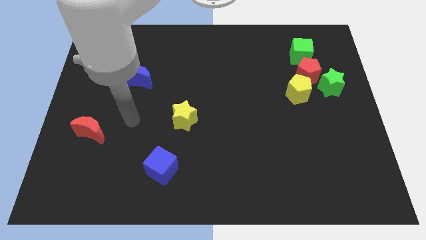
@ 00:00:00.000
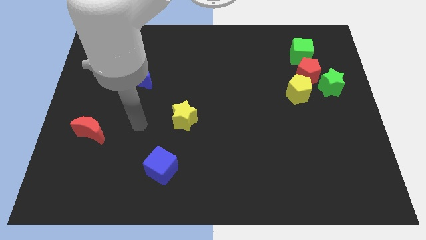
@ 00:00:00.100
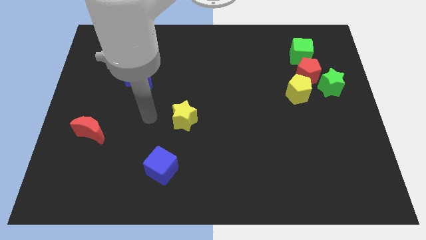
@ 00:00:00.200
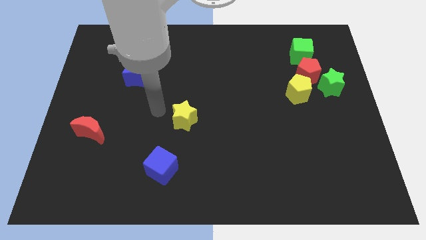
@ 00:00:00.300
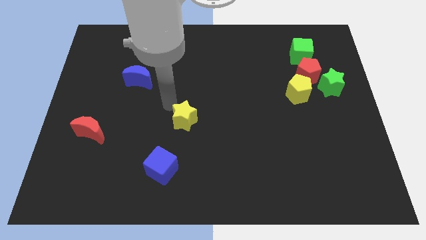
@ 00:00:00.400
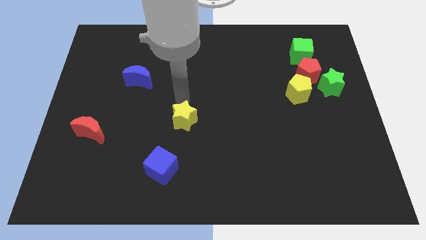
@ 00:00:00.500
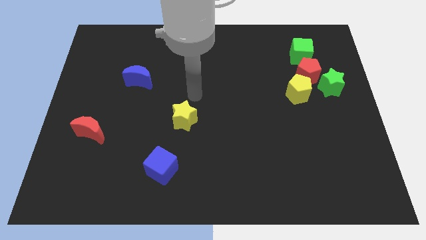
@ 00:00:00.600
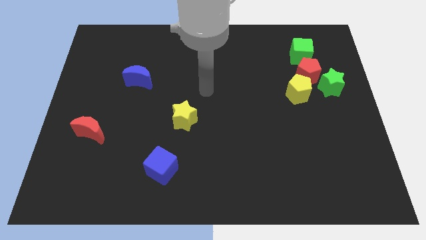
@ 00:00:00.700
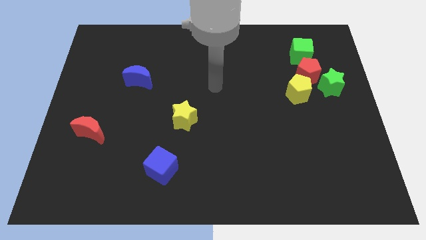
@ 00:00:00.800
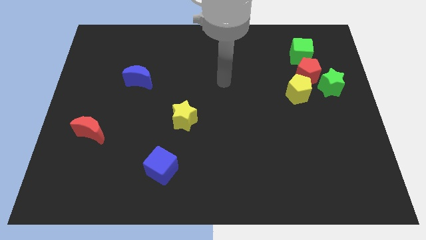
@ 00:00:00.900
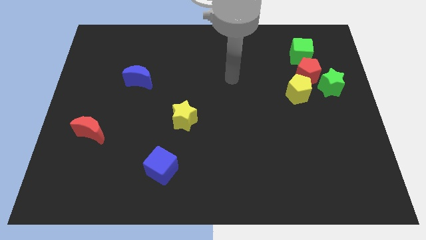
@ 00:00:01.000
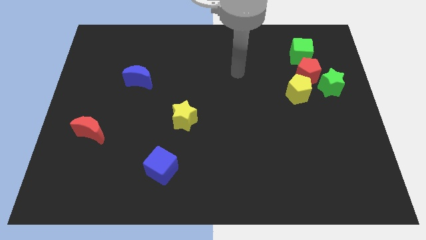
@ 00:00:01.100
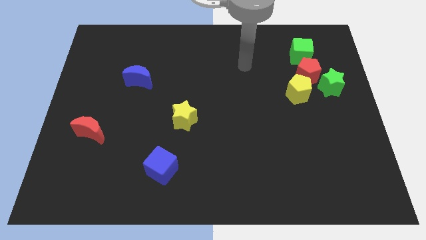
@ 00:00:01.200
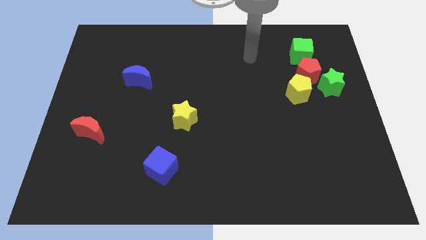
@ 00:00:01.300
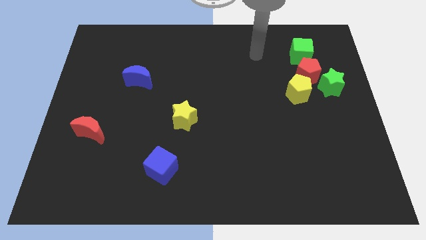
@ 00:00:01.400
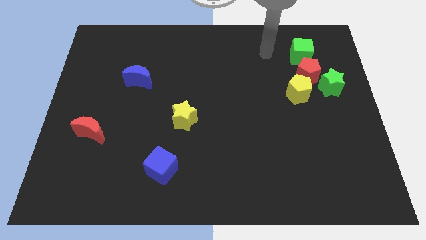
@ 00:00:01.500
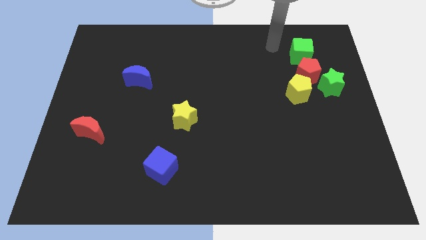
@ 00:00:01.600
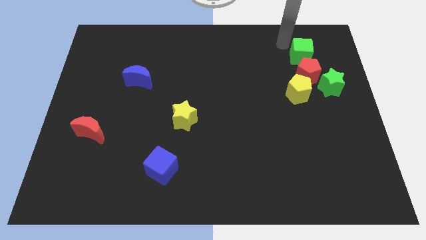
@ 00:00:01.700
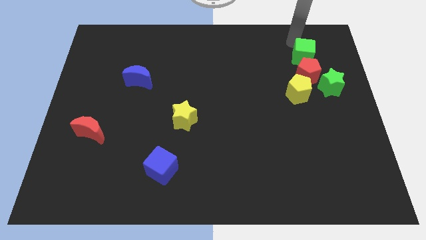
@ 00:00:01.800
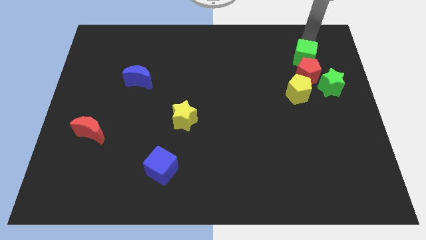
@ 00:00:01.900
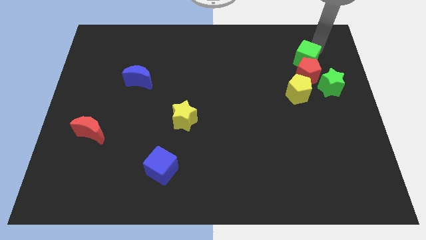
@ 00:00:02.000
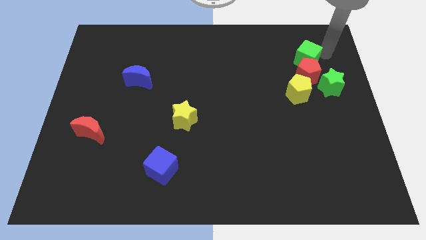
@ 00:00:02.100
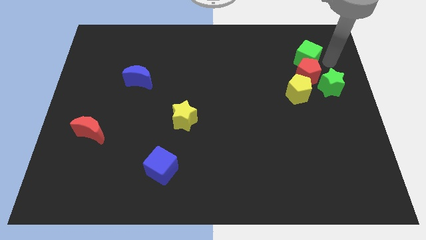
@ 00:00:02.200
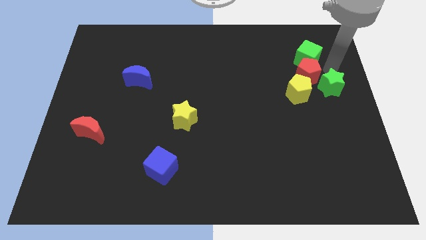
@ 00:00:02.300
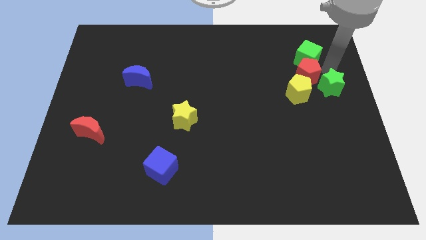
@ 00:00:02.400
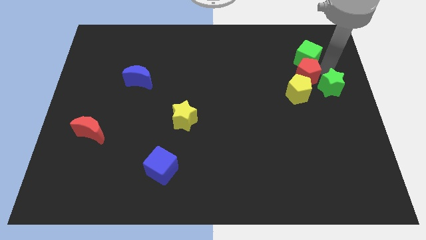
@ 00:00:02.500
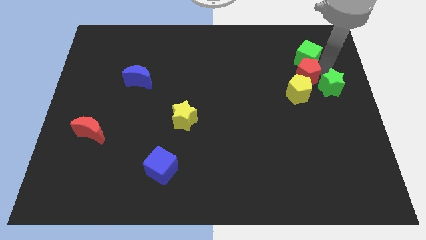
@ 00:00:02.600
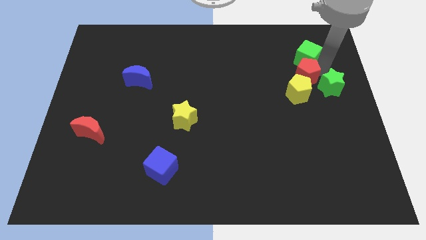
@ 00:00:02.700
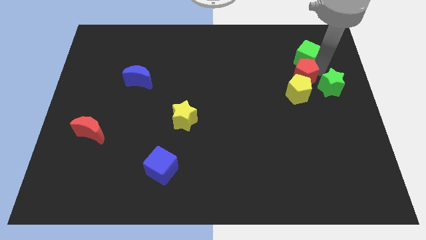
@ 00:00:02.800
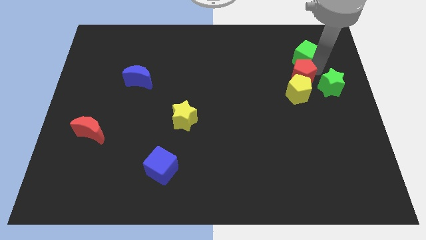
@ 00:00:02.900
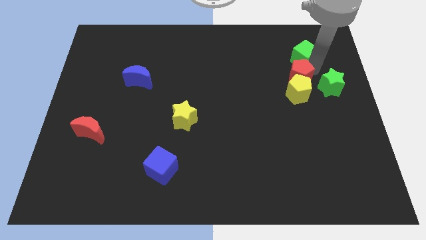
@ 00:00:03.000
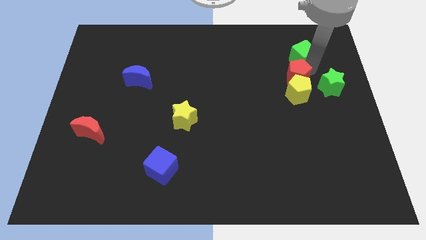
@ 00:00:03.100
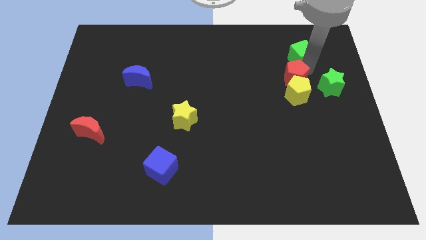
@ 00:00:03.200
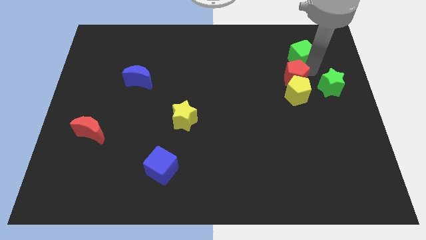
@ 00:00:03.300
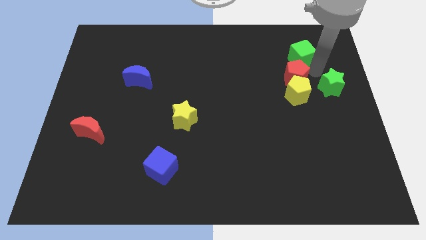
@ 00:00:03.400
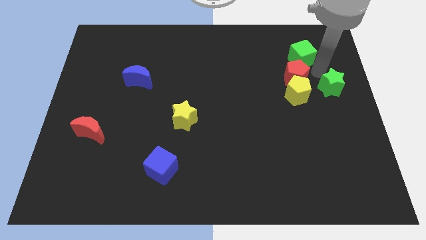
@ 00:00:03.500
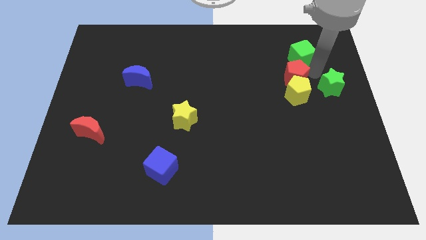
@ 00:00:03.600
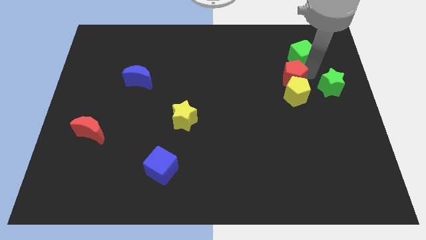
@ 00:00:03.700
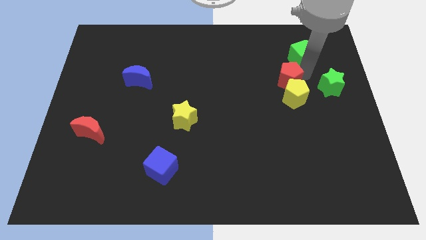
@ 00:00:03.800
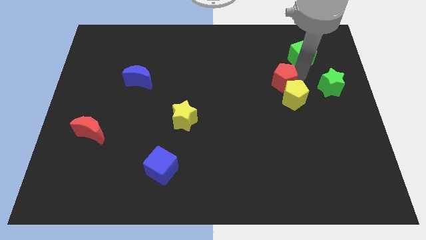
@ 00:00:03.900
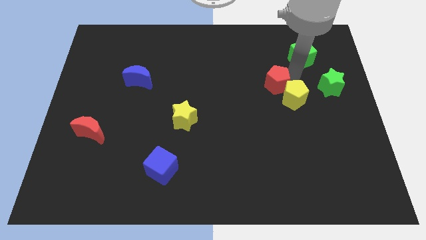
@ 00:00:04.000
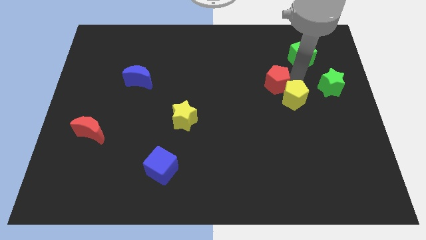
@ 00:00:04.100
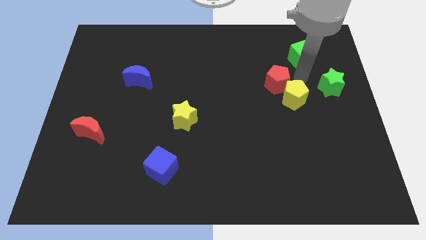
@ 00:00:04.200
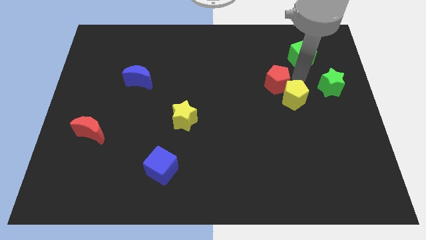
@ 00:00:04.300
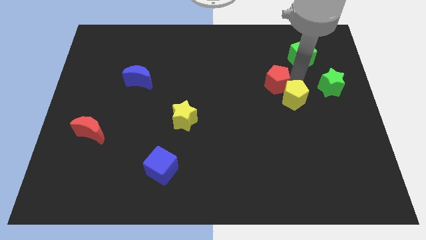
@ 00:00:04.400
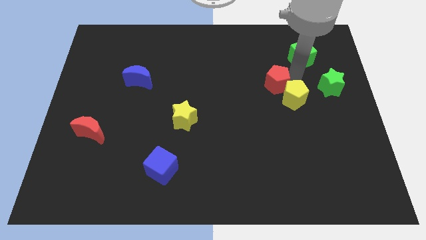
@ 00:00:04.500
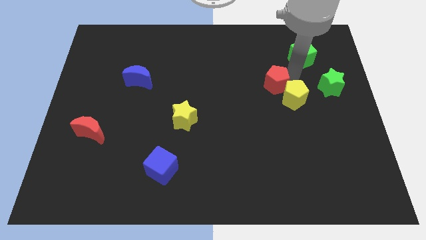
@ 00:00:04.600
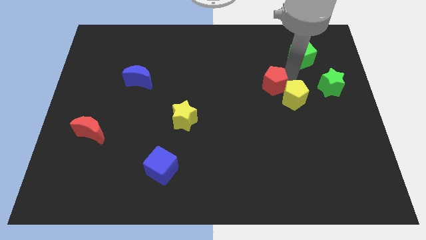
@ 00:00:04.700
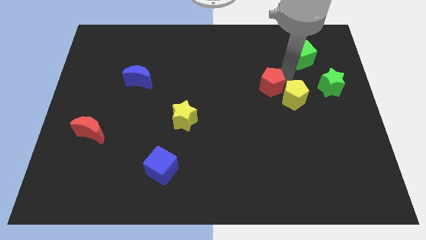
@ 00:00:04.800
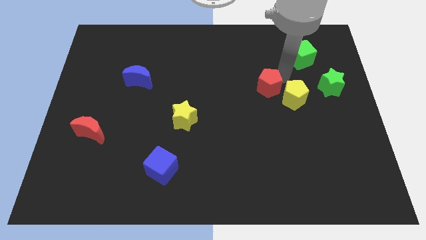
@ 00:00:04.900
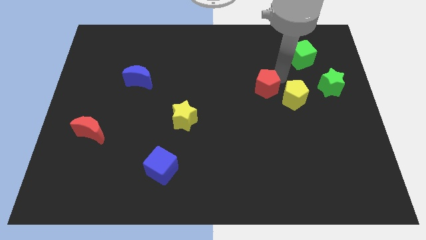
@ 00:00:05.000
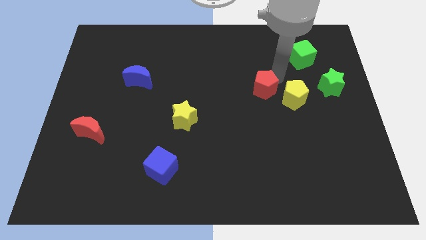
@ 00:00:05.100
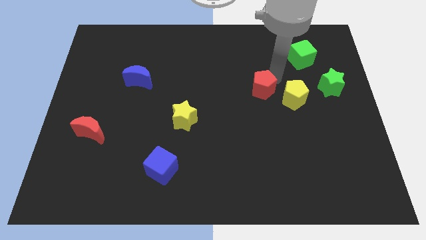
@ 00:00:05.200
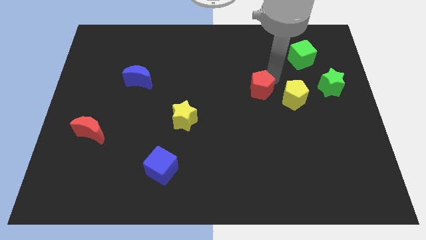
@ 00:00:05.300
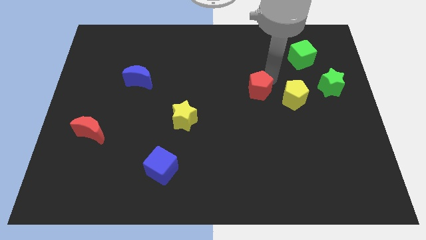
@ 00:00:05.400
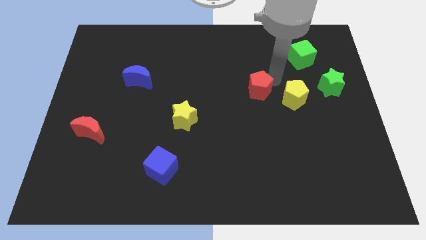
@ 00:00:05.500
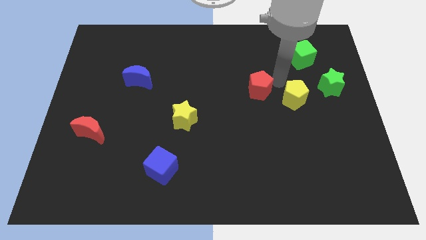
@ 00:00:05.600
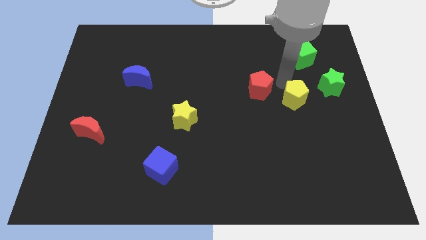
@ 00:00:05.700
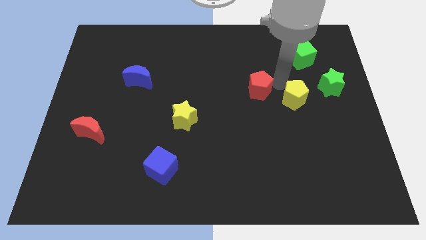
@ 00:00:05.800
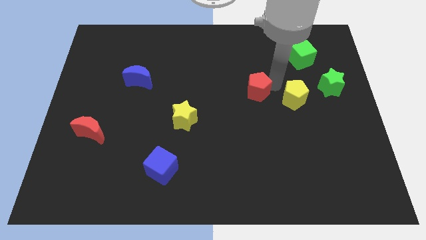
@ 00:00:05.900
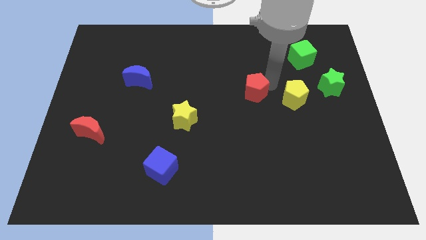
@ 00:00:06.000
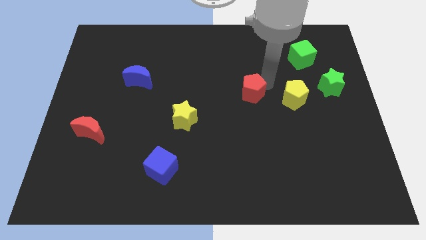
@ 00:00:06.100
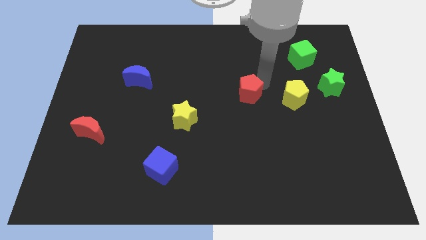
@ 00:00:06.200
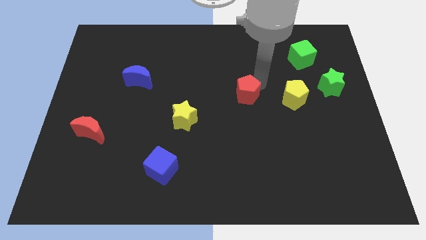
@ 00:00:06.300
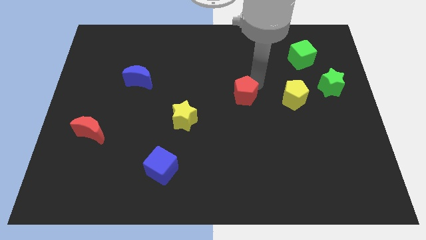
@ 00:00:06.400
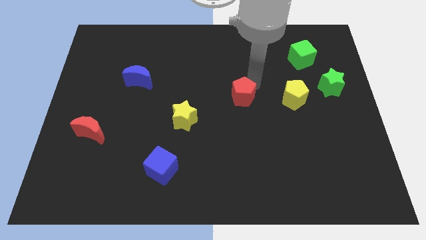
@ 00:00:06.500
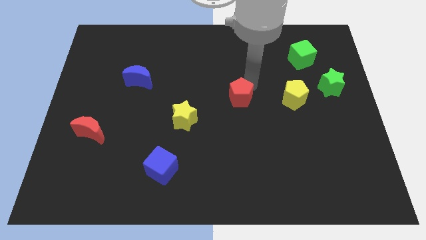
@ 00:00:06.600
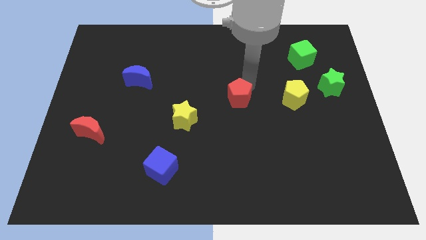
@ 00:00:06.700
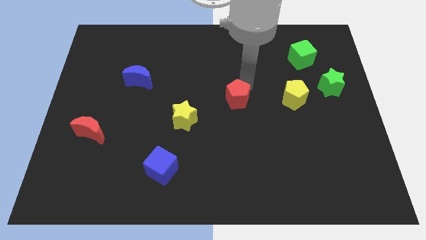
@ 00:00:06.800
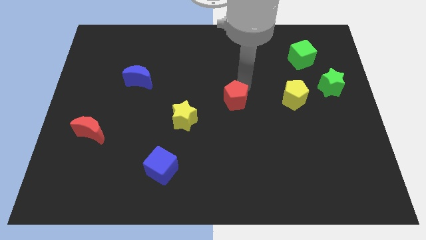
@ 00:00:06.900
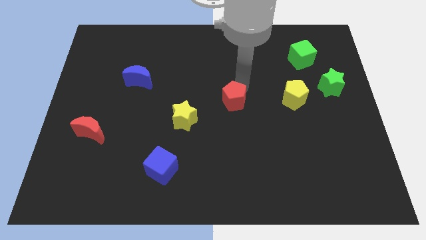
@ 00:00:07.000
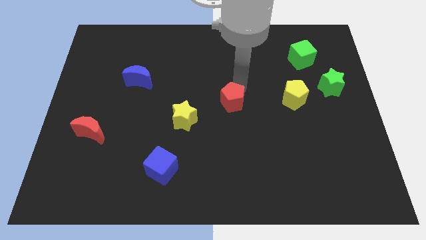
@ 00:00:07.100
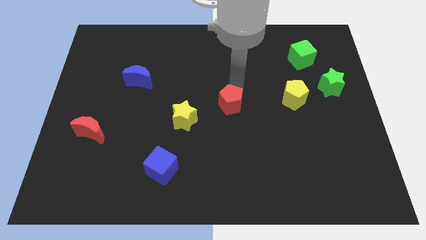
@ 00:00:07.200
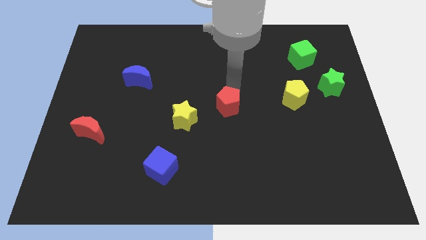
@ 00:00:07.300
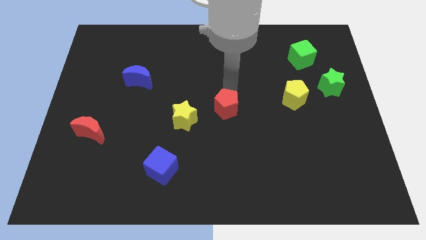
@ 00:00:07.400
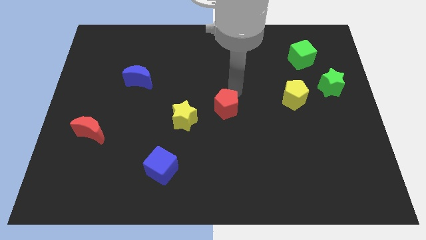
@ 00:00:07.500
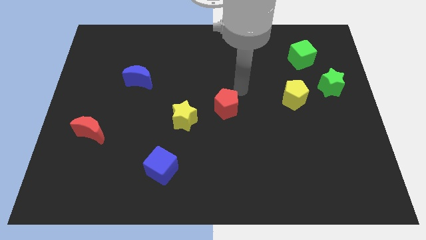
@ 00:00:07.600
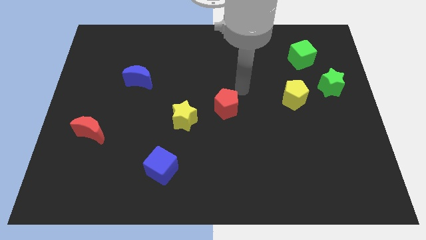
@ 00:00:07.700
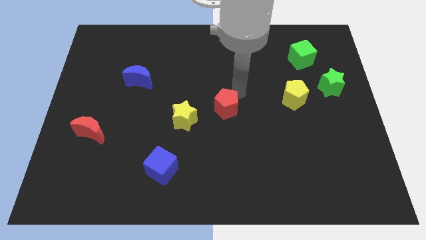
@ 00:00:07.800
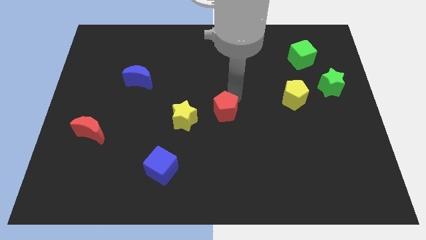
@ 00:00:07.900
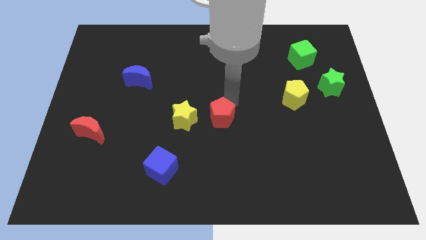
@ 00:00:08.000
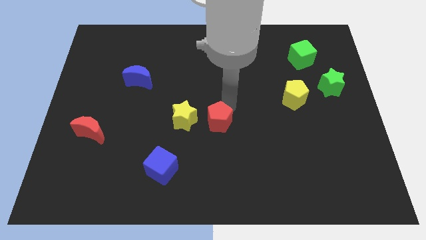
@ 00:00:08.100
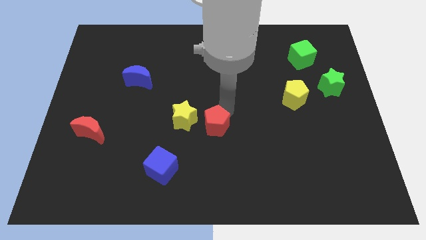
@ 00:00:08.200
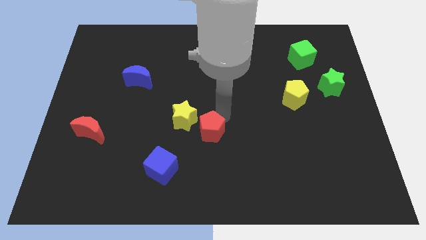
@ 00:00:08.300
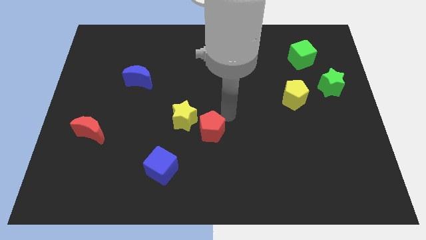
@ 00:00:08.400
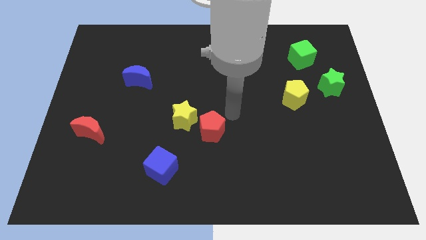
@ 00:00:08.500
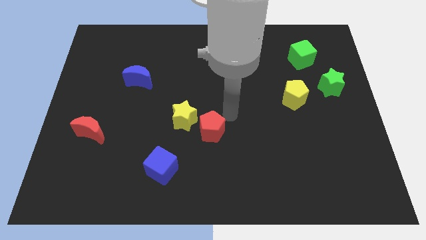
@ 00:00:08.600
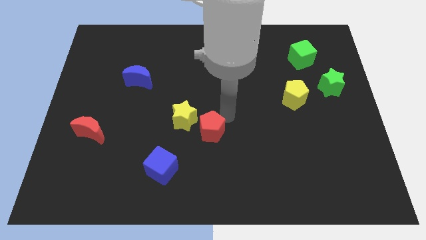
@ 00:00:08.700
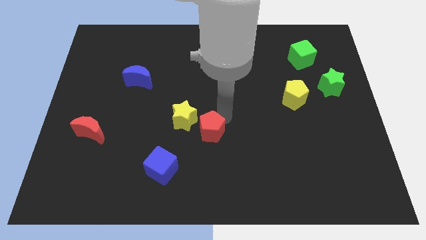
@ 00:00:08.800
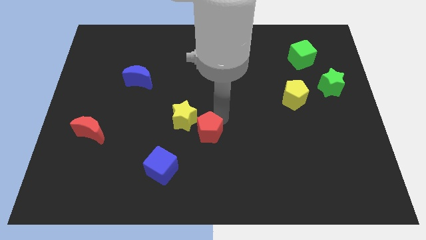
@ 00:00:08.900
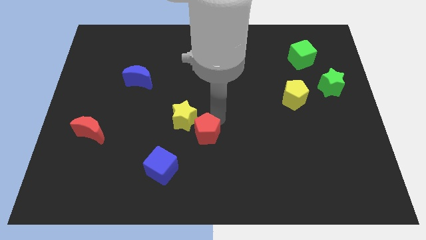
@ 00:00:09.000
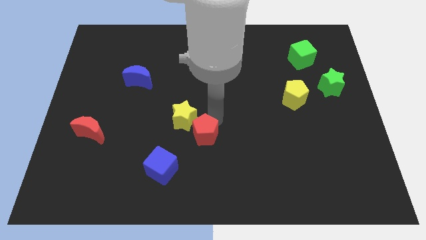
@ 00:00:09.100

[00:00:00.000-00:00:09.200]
push the red pentagon below the yellow star
